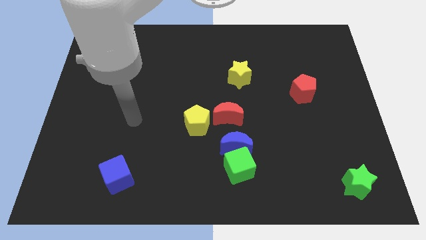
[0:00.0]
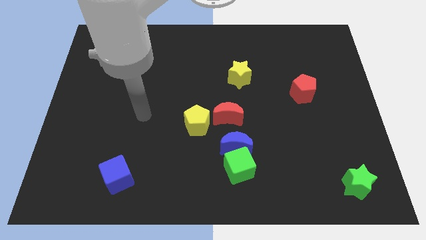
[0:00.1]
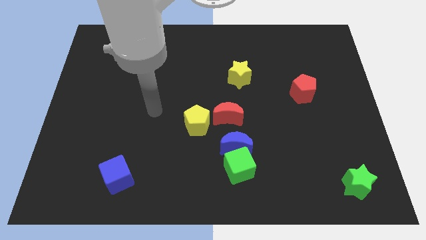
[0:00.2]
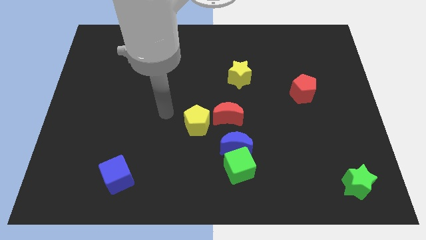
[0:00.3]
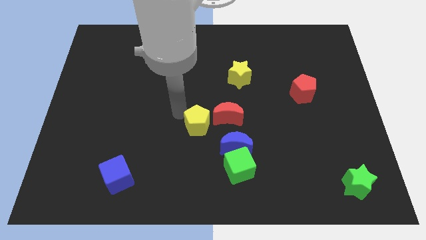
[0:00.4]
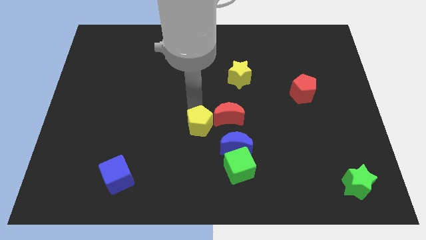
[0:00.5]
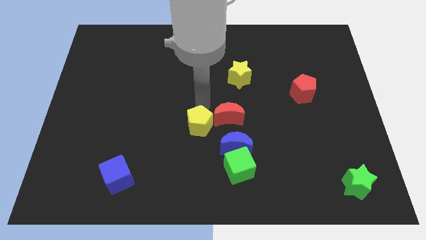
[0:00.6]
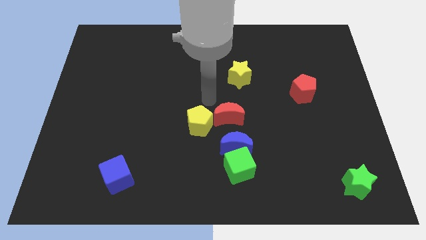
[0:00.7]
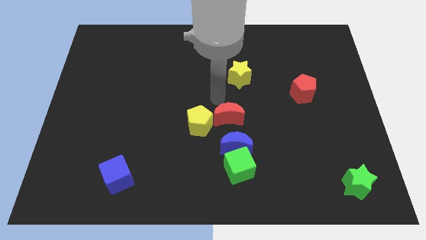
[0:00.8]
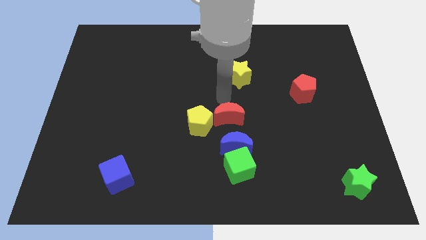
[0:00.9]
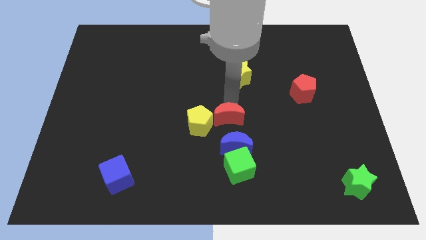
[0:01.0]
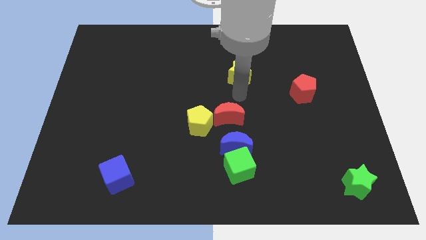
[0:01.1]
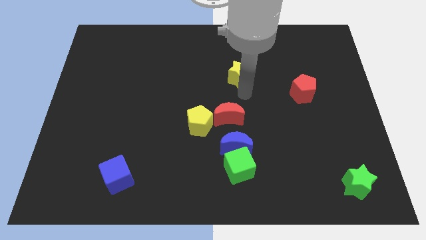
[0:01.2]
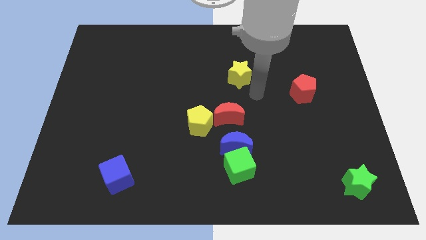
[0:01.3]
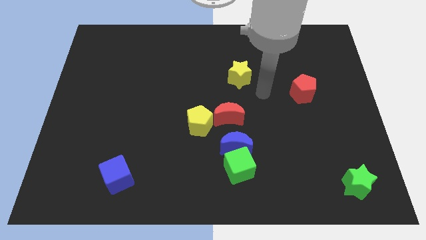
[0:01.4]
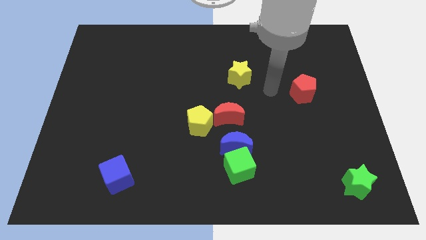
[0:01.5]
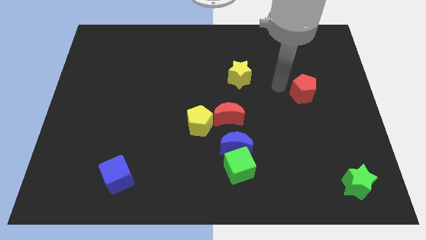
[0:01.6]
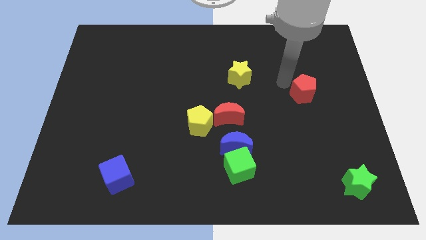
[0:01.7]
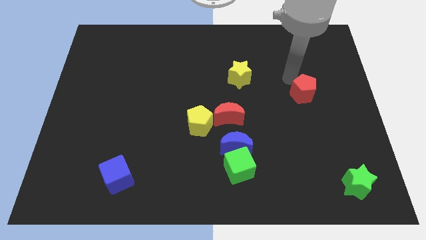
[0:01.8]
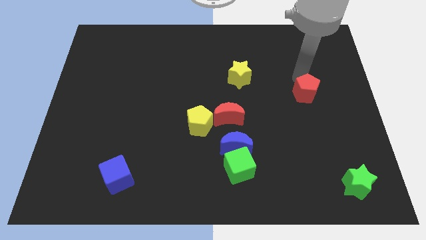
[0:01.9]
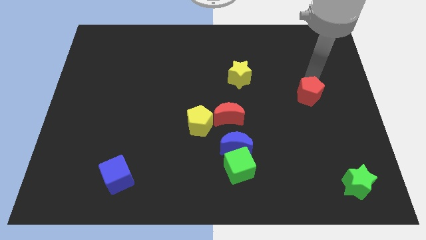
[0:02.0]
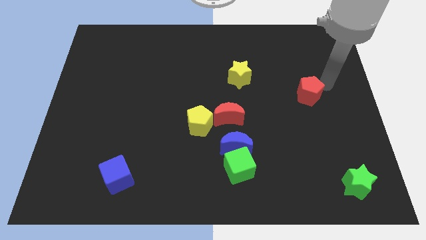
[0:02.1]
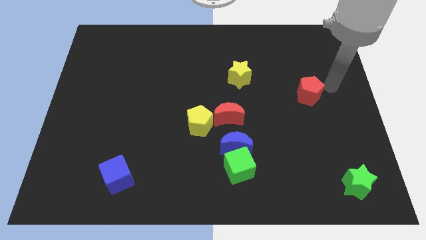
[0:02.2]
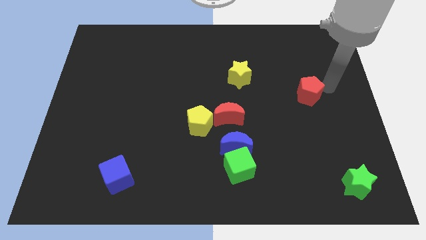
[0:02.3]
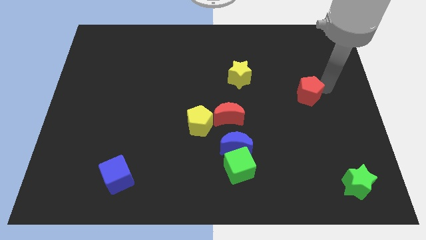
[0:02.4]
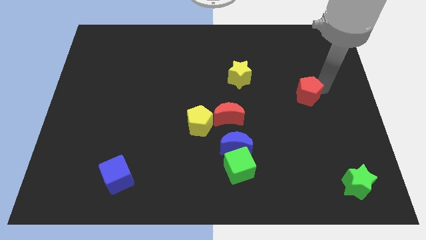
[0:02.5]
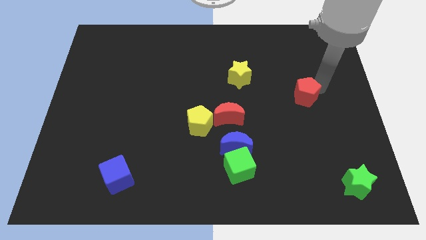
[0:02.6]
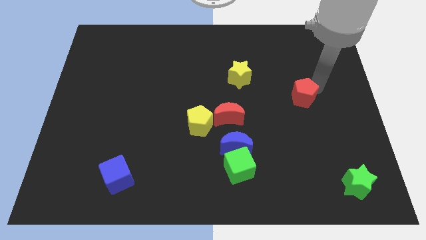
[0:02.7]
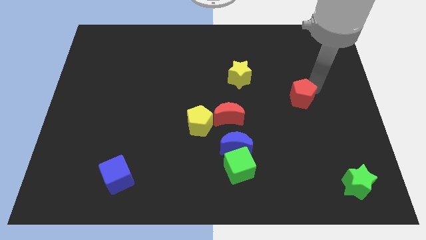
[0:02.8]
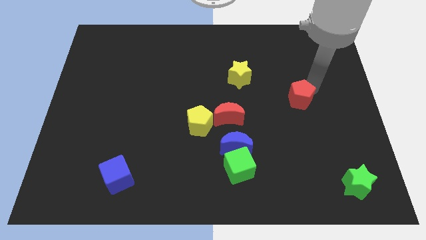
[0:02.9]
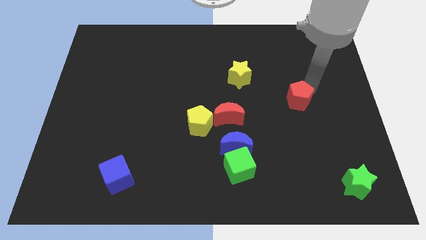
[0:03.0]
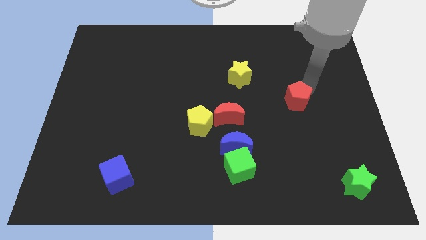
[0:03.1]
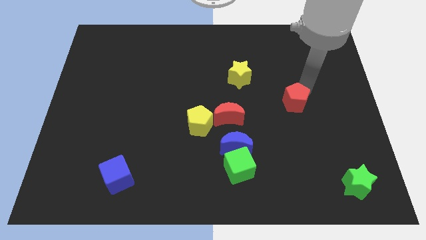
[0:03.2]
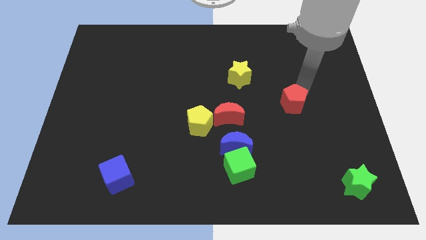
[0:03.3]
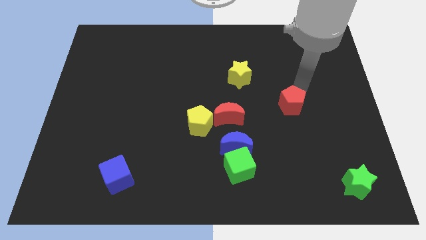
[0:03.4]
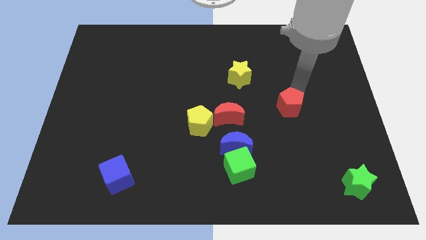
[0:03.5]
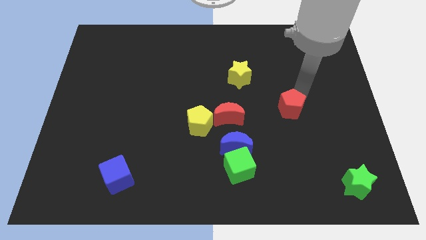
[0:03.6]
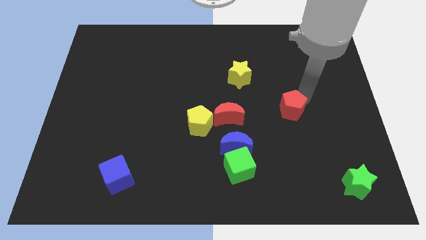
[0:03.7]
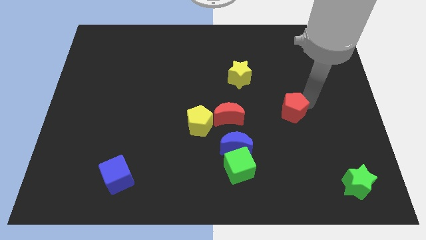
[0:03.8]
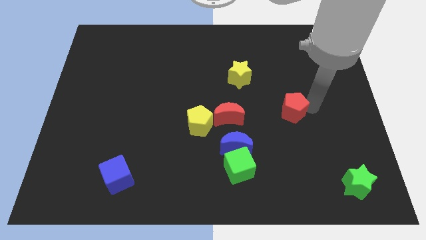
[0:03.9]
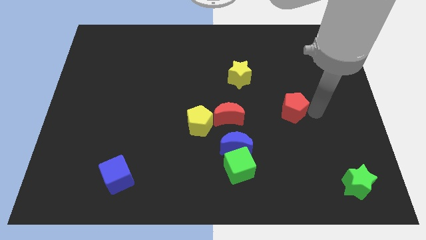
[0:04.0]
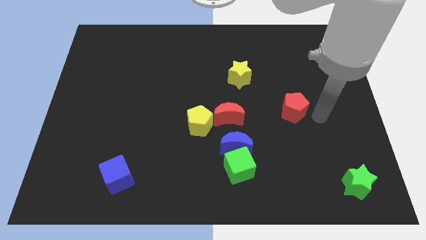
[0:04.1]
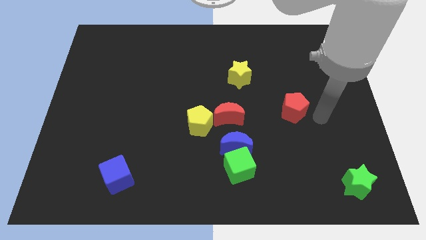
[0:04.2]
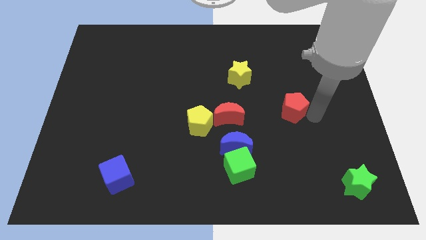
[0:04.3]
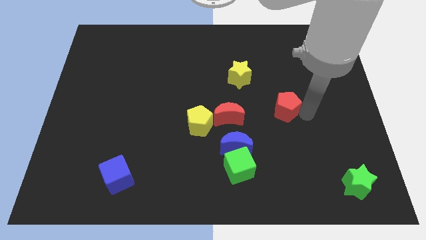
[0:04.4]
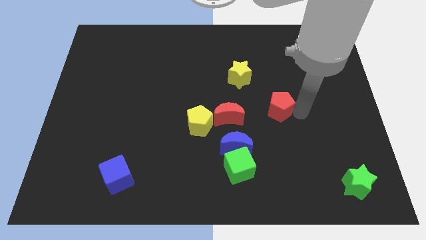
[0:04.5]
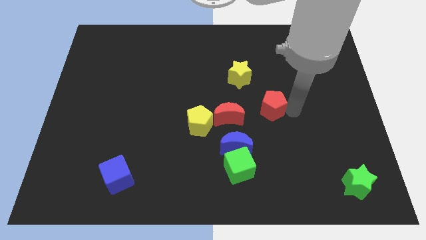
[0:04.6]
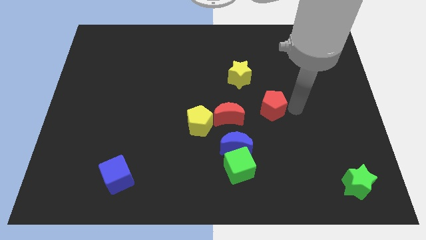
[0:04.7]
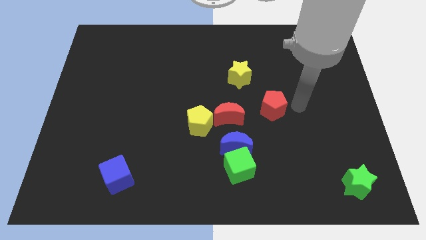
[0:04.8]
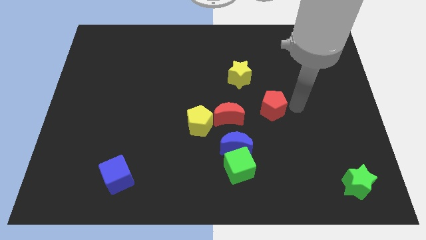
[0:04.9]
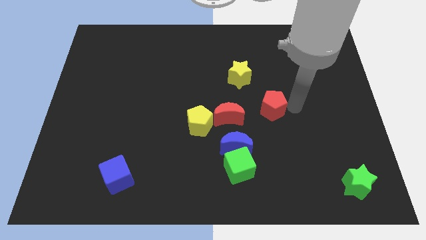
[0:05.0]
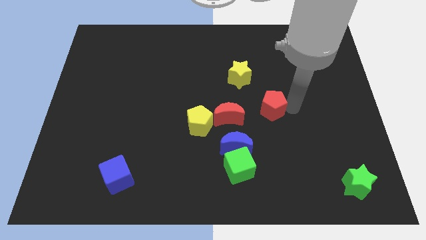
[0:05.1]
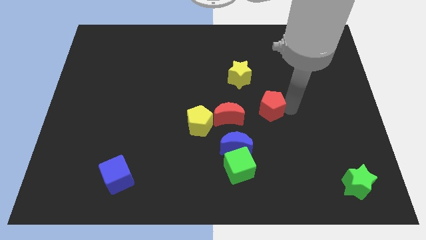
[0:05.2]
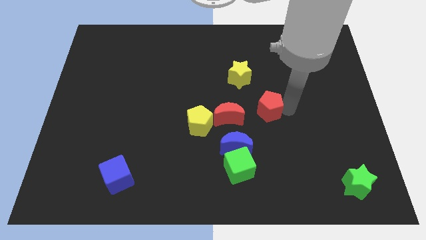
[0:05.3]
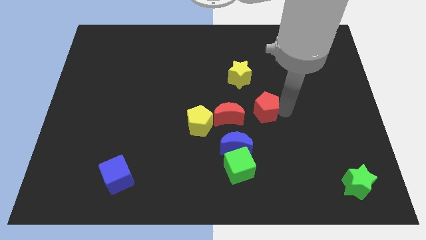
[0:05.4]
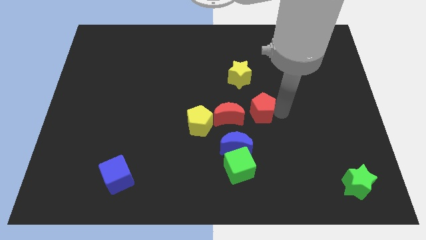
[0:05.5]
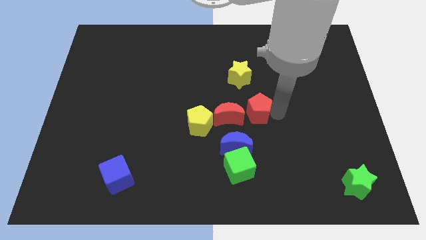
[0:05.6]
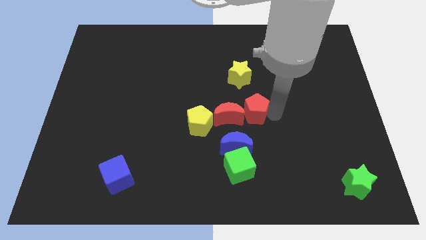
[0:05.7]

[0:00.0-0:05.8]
slide the red pentagon to the red moon

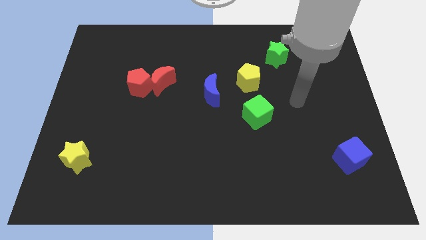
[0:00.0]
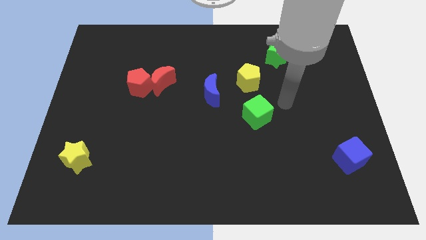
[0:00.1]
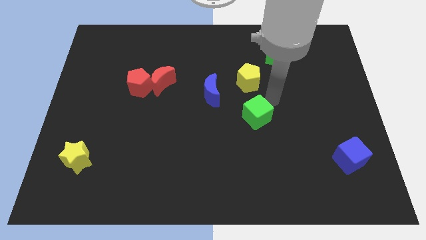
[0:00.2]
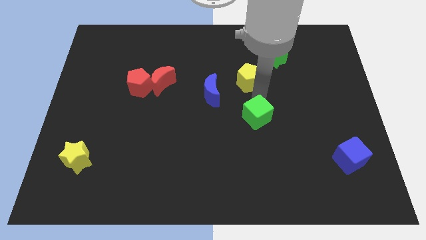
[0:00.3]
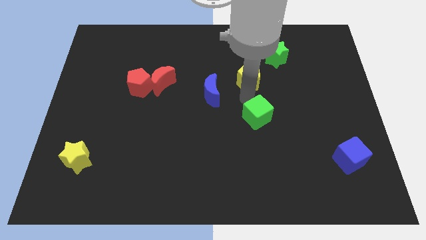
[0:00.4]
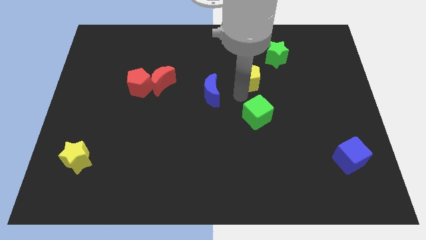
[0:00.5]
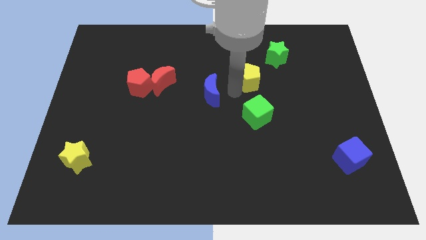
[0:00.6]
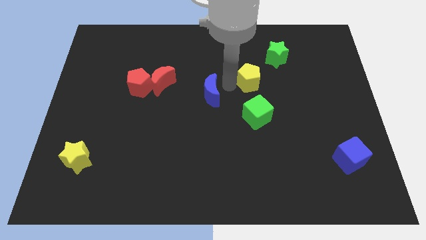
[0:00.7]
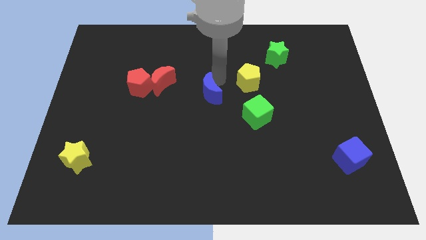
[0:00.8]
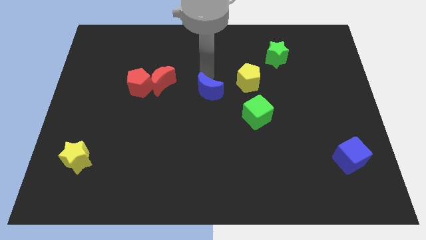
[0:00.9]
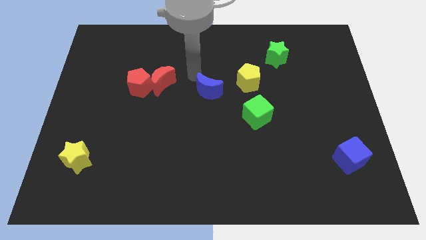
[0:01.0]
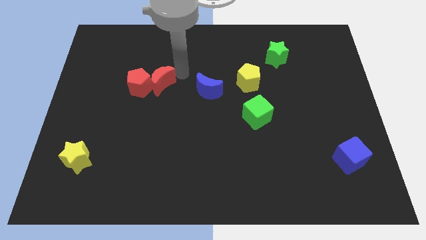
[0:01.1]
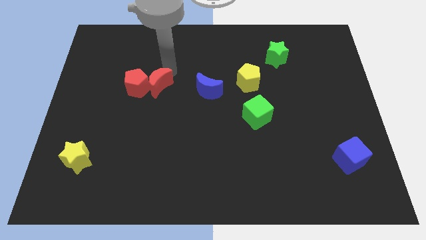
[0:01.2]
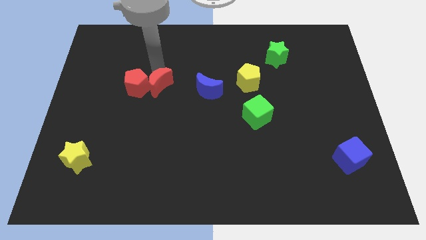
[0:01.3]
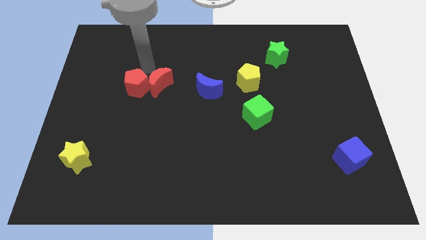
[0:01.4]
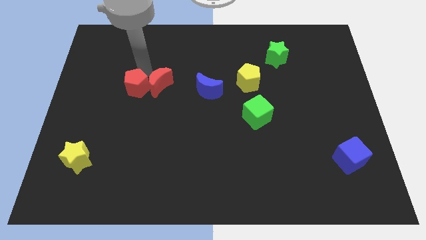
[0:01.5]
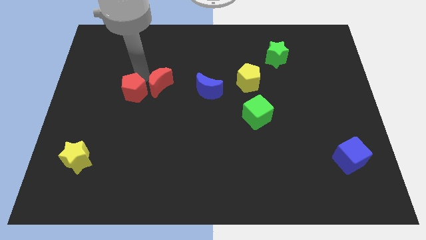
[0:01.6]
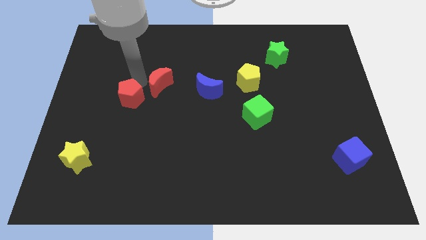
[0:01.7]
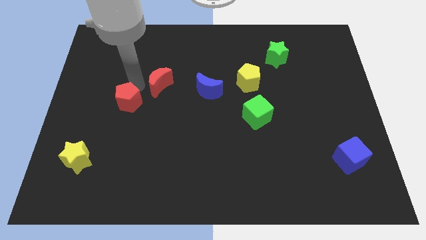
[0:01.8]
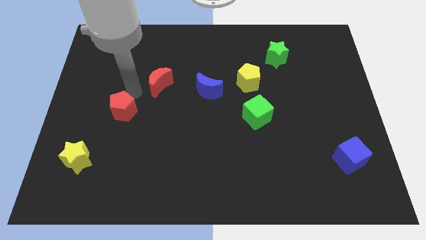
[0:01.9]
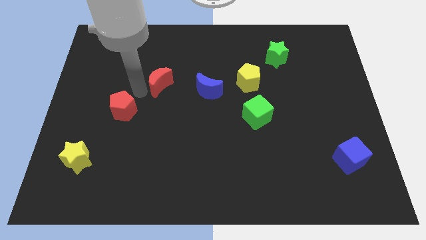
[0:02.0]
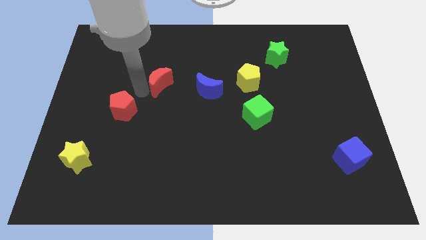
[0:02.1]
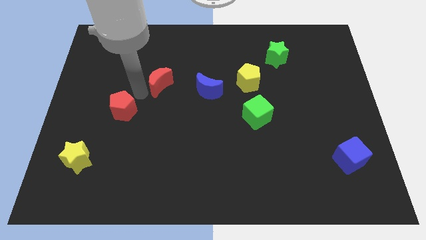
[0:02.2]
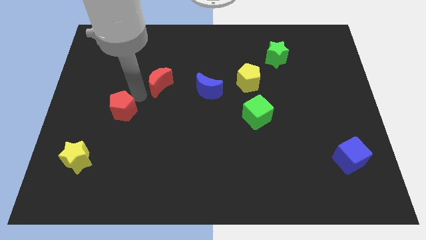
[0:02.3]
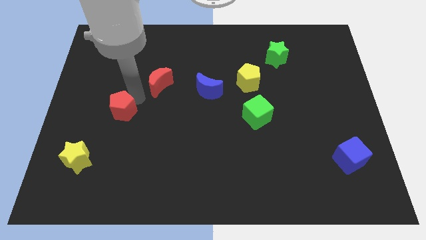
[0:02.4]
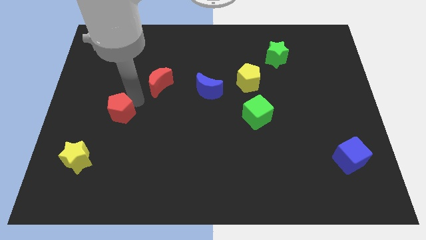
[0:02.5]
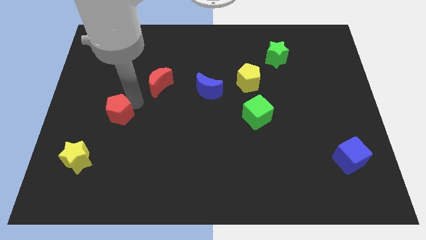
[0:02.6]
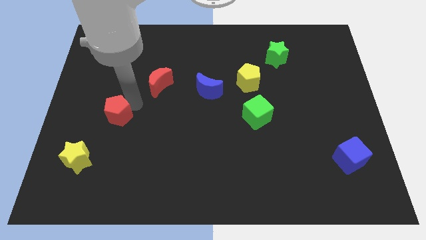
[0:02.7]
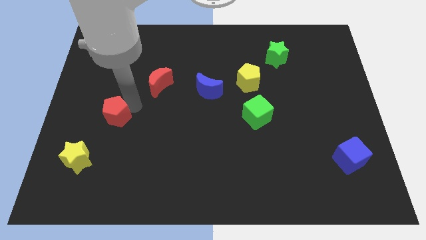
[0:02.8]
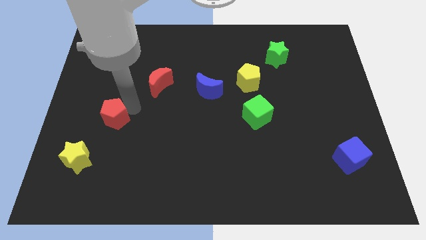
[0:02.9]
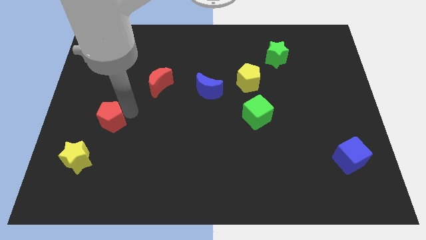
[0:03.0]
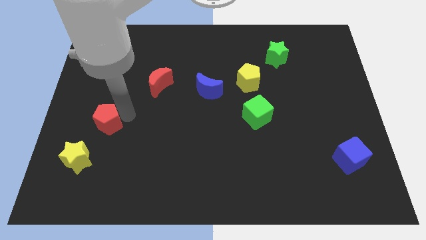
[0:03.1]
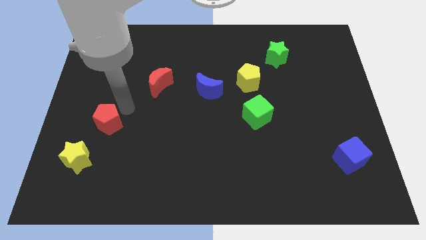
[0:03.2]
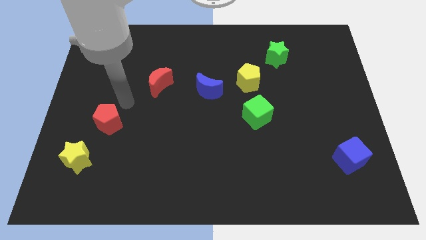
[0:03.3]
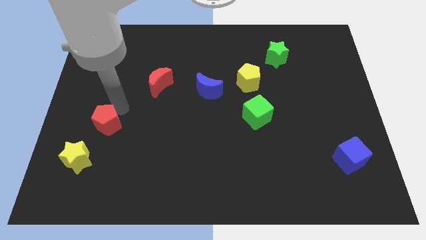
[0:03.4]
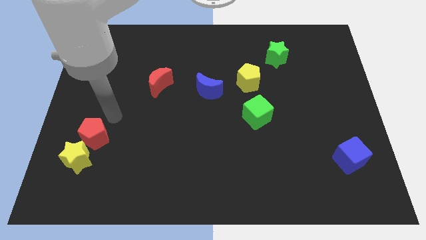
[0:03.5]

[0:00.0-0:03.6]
push the red pentagon close to the yellow star
